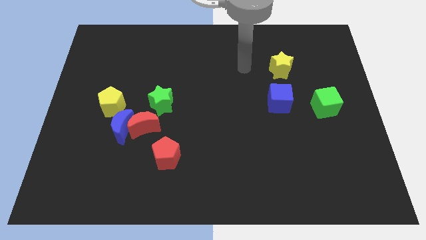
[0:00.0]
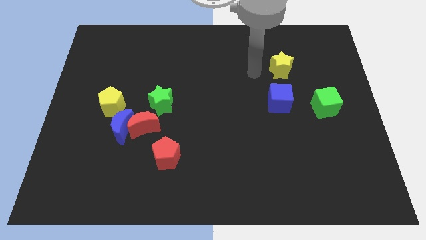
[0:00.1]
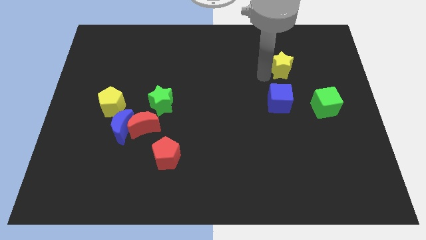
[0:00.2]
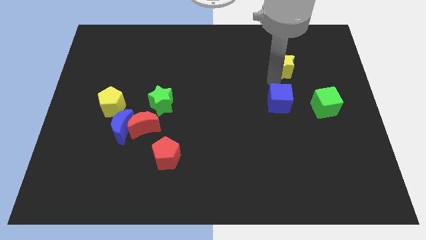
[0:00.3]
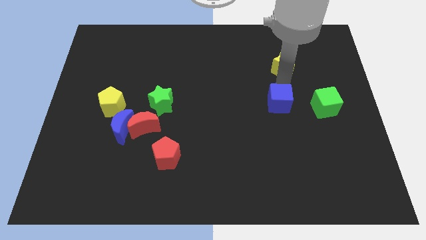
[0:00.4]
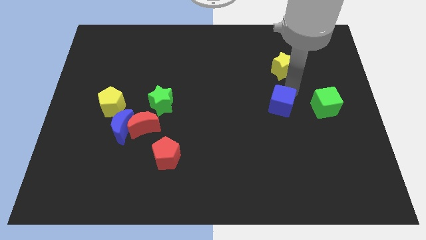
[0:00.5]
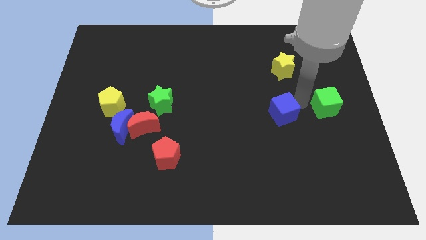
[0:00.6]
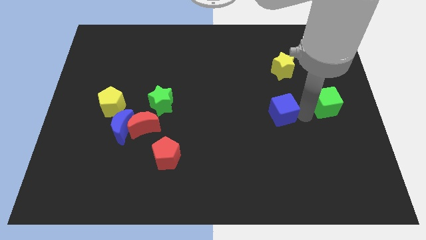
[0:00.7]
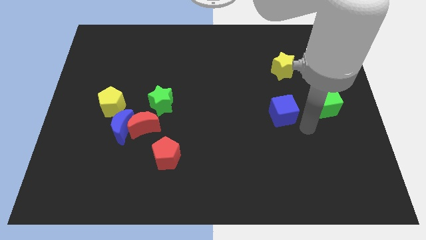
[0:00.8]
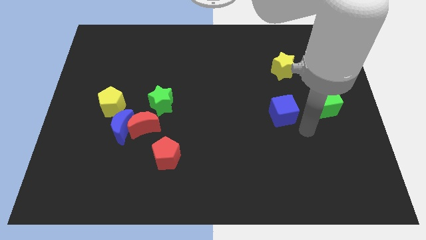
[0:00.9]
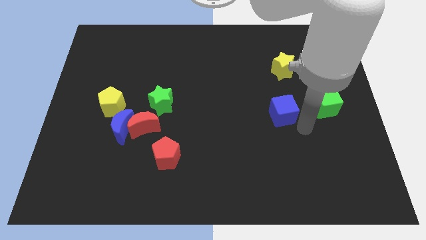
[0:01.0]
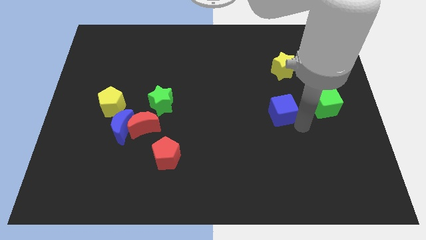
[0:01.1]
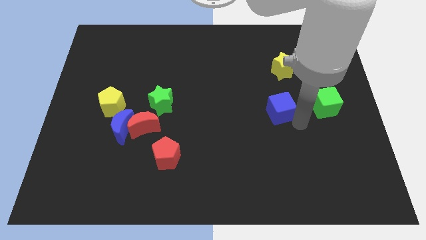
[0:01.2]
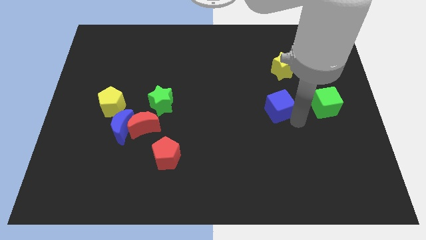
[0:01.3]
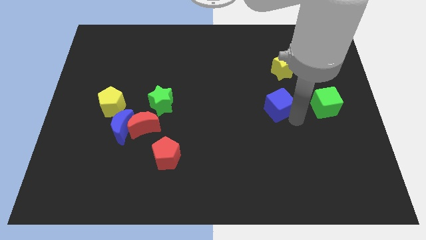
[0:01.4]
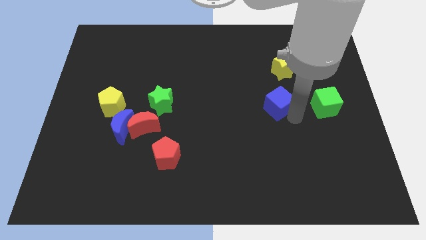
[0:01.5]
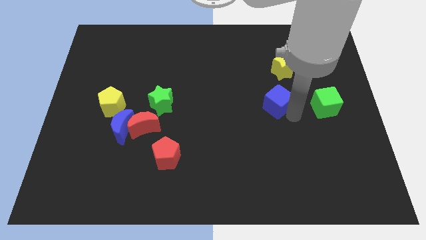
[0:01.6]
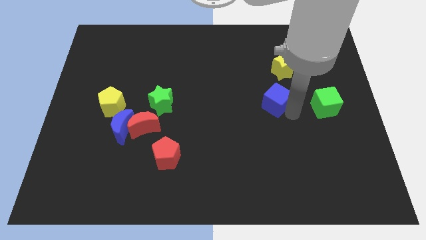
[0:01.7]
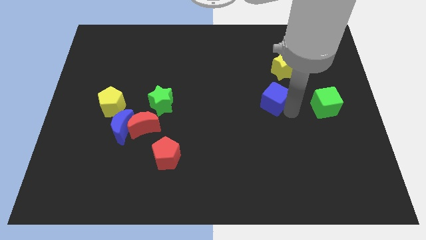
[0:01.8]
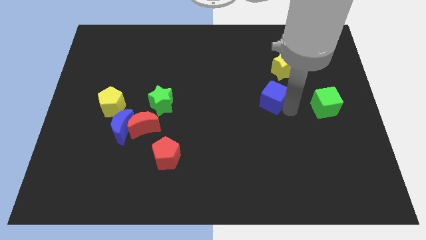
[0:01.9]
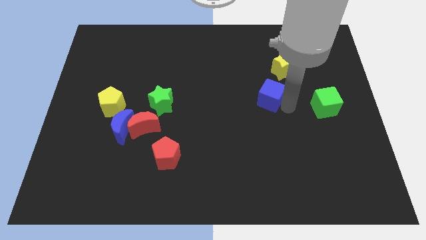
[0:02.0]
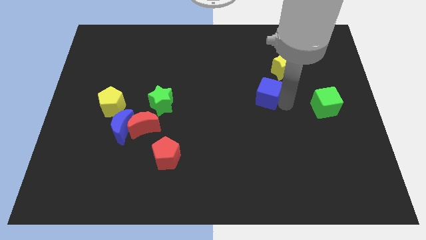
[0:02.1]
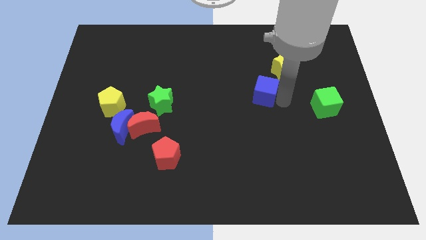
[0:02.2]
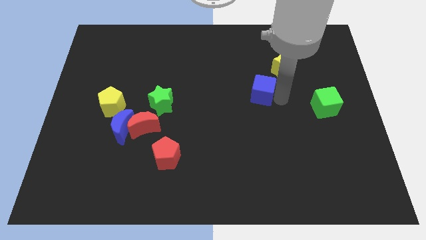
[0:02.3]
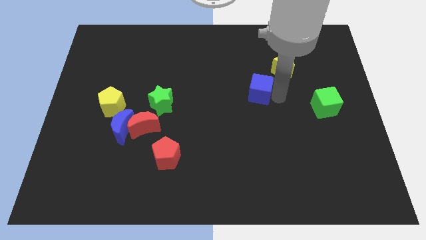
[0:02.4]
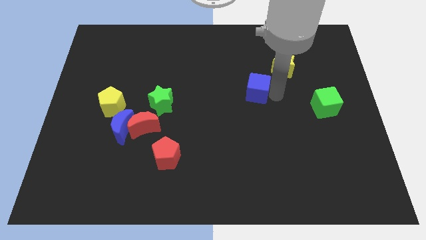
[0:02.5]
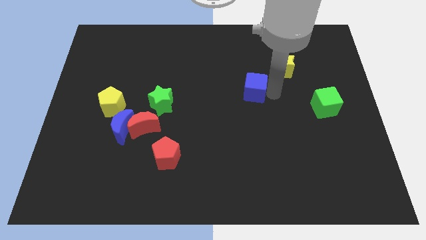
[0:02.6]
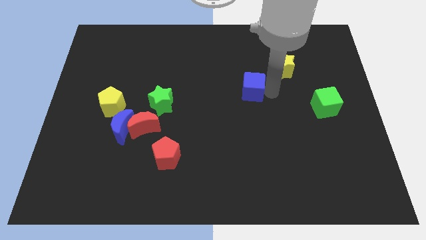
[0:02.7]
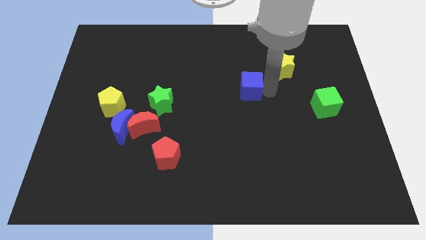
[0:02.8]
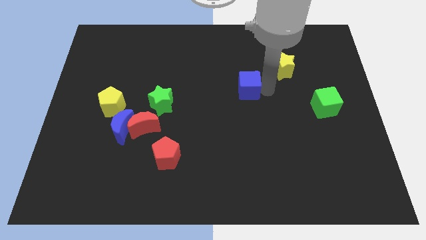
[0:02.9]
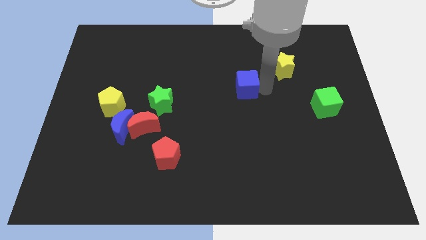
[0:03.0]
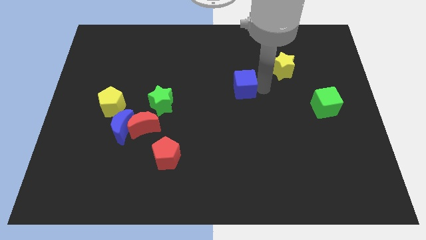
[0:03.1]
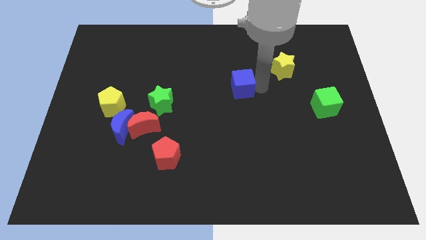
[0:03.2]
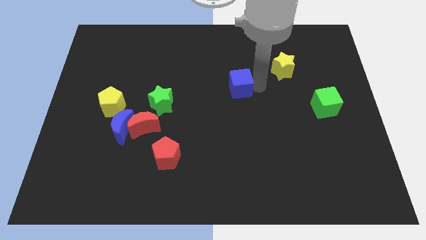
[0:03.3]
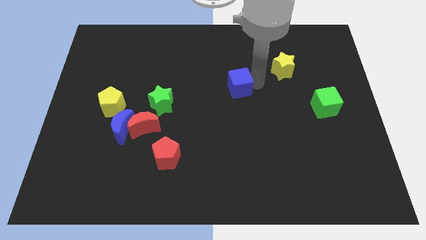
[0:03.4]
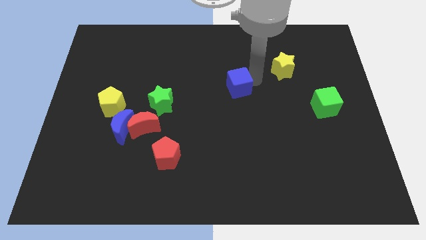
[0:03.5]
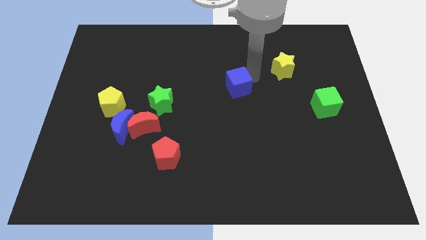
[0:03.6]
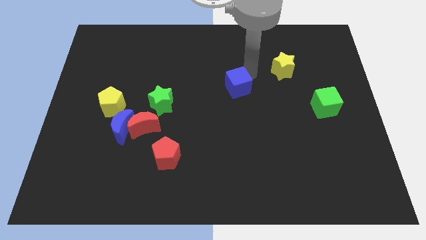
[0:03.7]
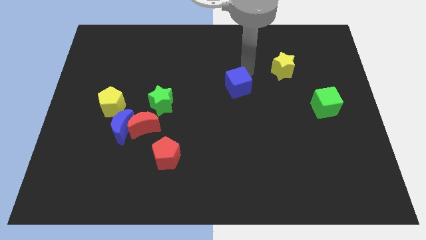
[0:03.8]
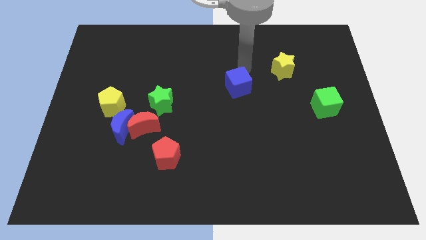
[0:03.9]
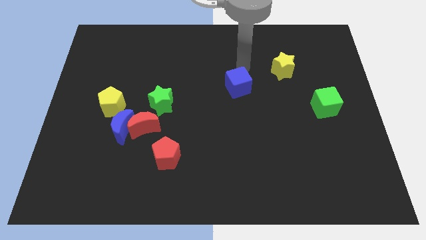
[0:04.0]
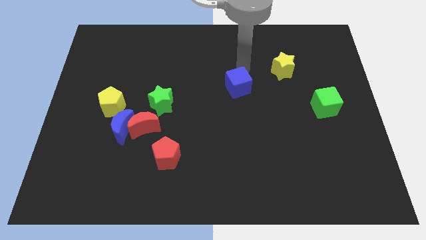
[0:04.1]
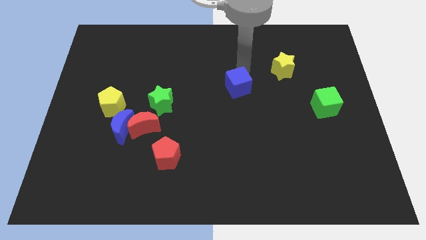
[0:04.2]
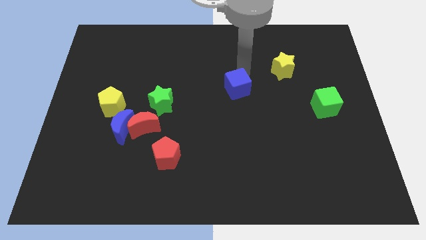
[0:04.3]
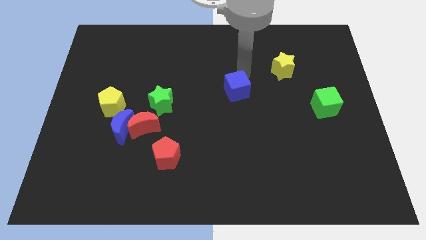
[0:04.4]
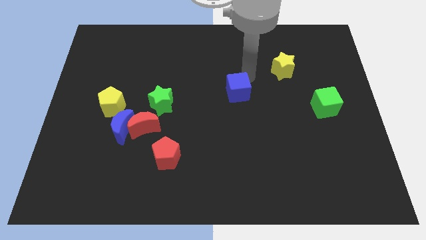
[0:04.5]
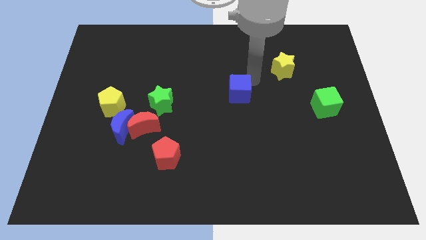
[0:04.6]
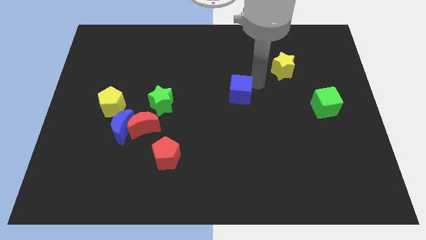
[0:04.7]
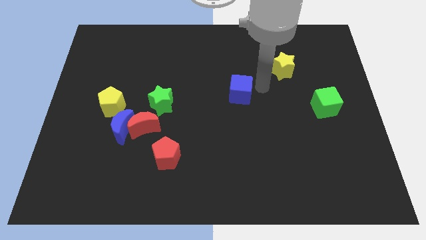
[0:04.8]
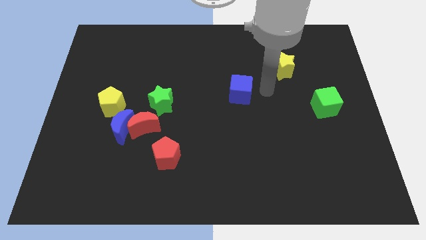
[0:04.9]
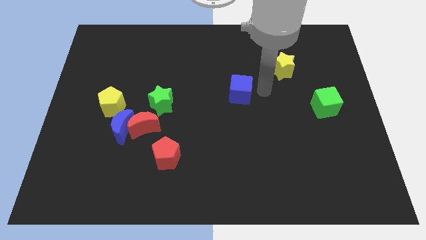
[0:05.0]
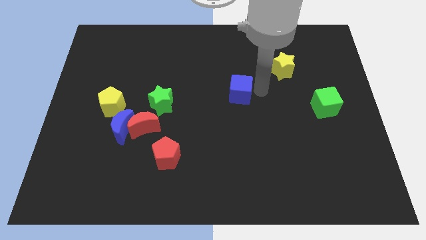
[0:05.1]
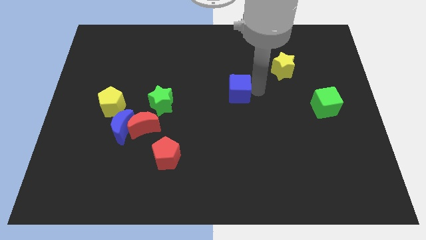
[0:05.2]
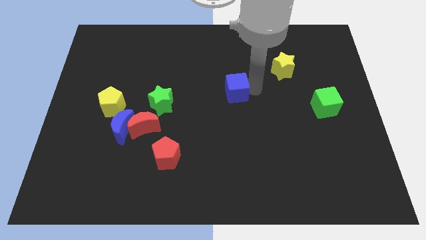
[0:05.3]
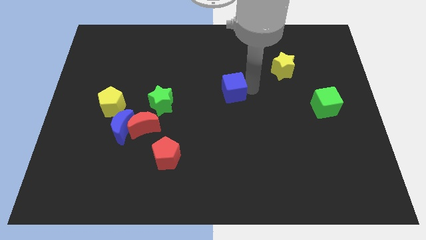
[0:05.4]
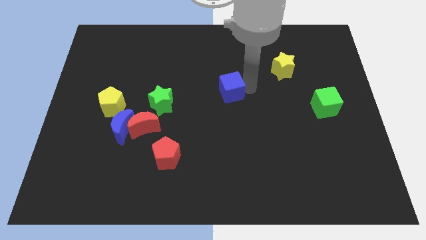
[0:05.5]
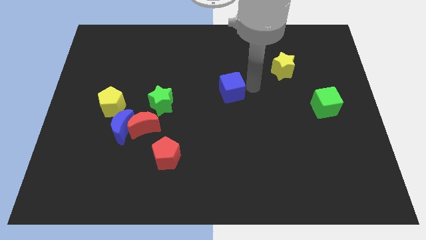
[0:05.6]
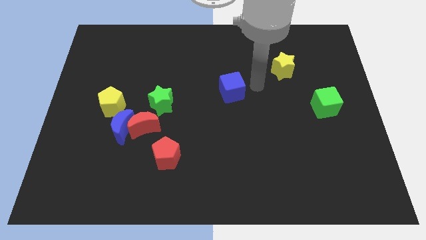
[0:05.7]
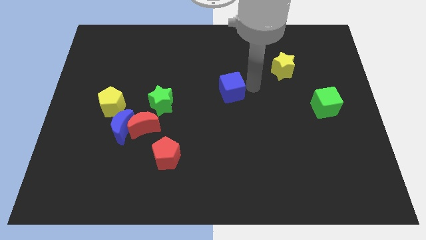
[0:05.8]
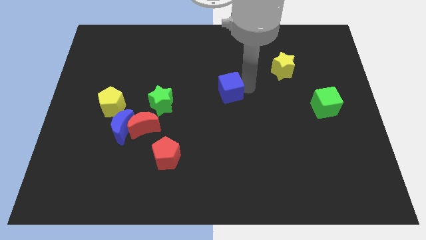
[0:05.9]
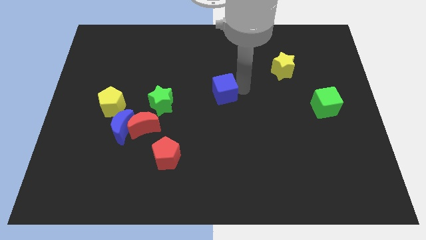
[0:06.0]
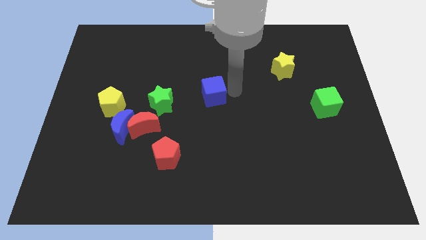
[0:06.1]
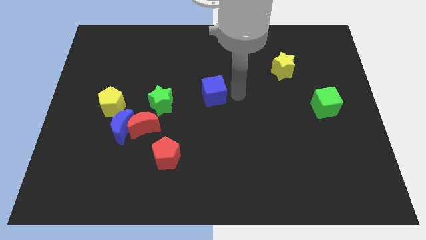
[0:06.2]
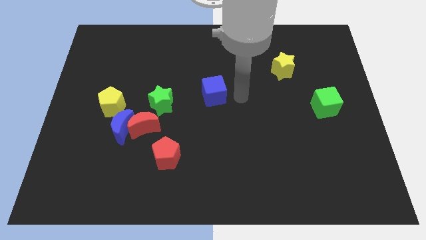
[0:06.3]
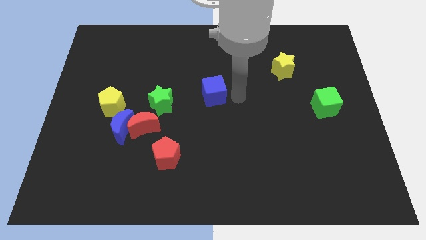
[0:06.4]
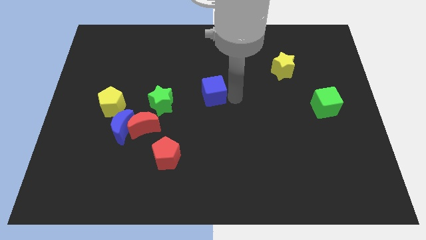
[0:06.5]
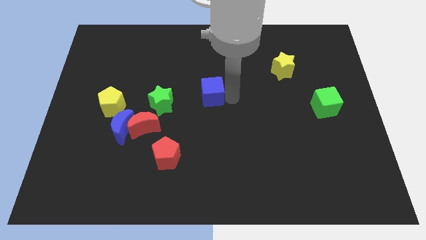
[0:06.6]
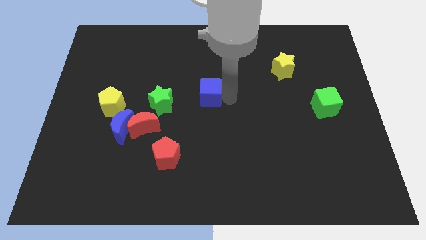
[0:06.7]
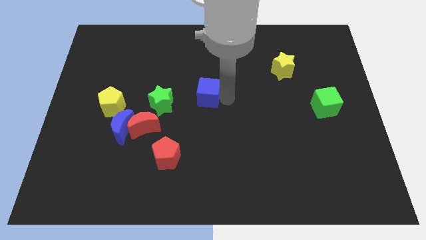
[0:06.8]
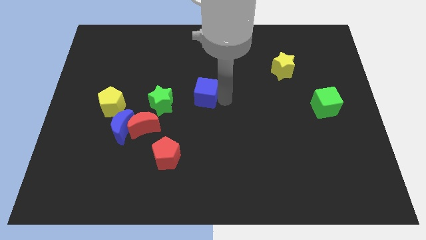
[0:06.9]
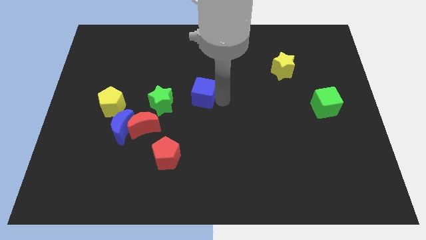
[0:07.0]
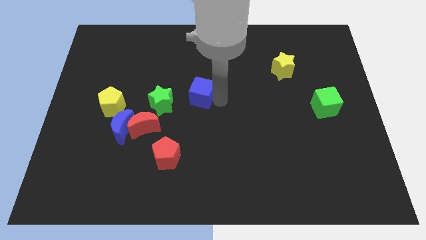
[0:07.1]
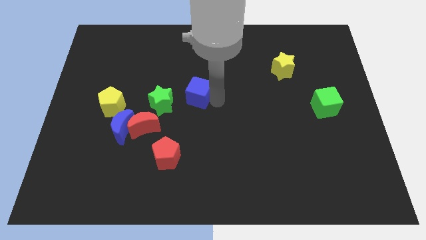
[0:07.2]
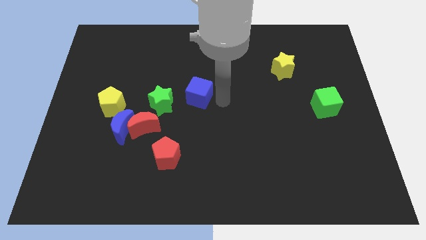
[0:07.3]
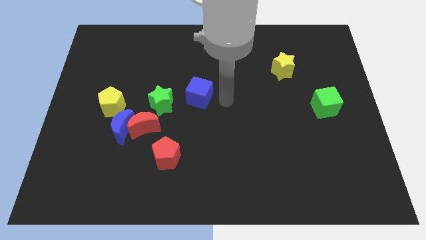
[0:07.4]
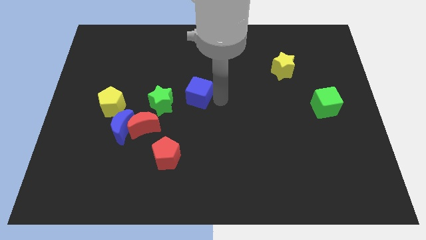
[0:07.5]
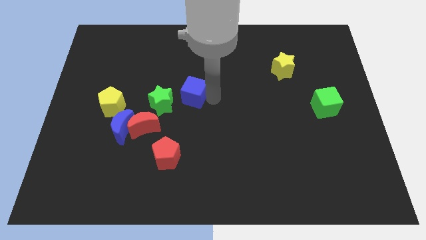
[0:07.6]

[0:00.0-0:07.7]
push the blue cube left

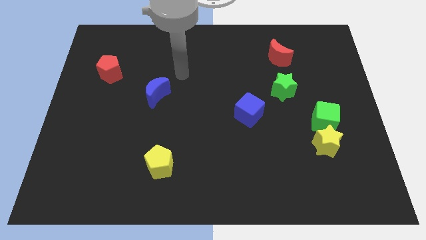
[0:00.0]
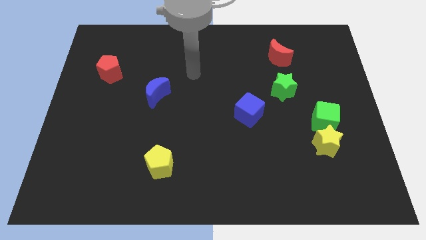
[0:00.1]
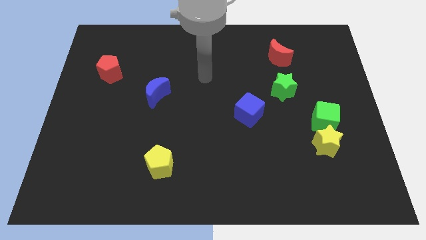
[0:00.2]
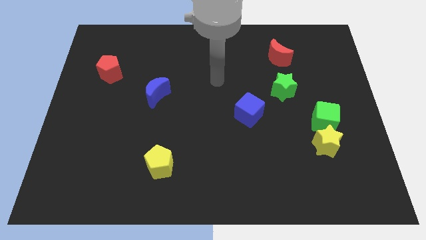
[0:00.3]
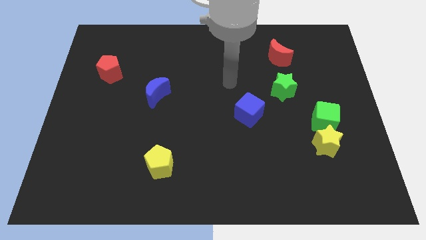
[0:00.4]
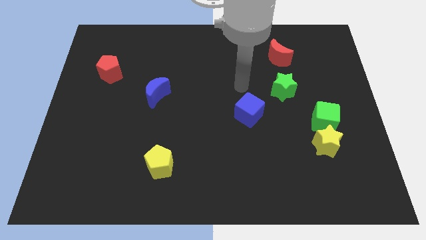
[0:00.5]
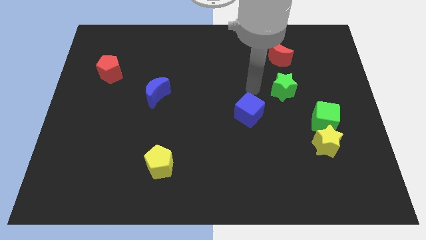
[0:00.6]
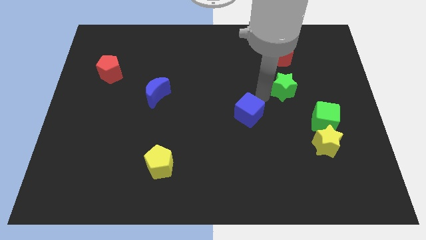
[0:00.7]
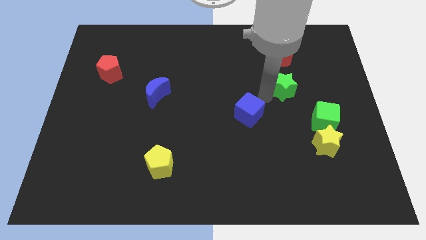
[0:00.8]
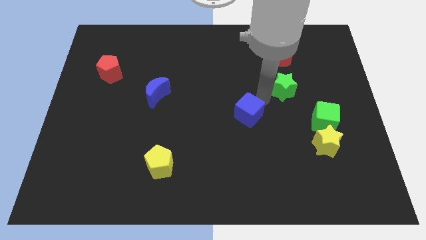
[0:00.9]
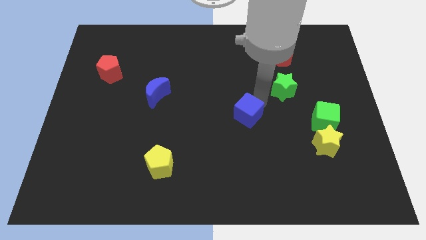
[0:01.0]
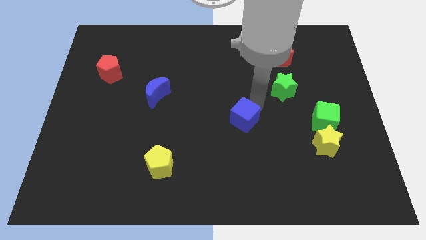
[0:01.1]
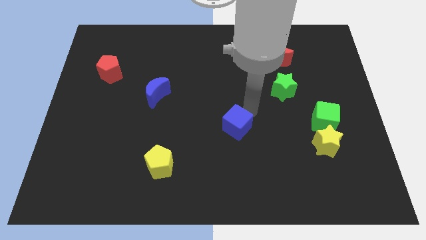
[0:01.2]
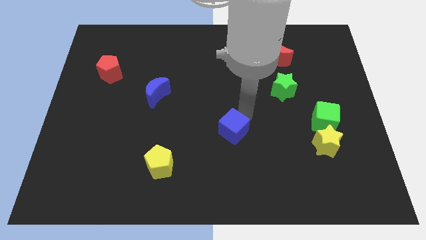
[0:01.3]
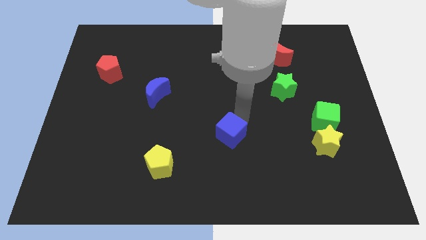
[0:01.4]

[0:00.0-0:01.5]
move the blue cube downwards and left a little bit
